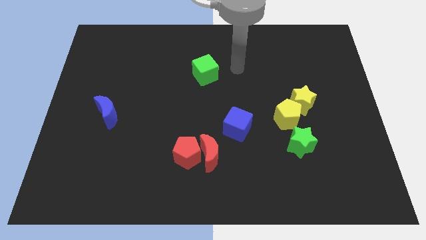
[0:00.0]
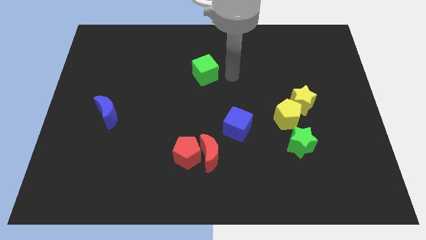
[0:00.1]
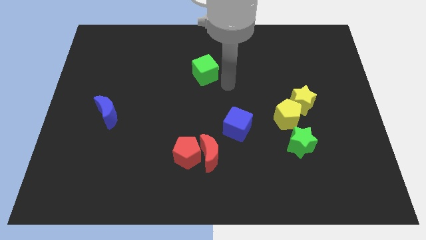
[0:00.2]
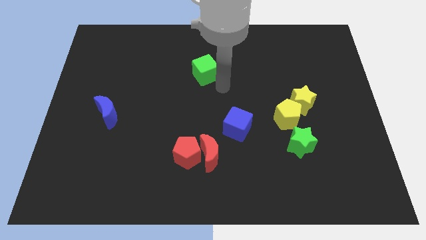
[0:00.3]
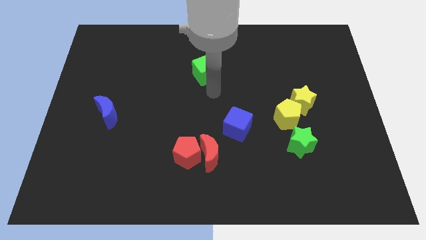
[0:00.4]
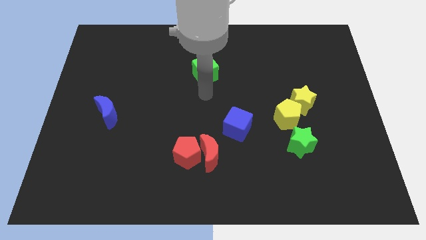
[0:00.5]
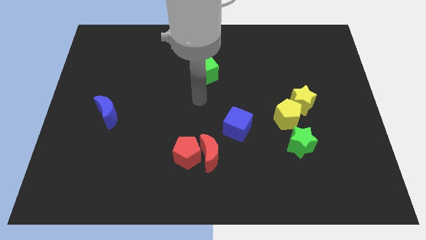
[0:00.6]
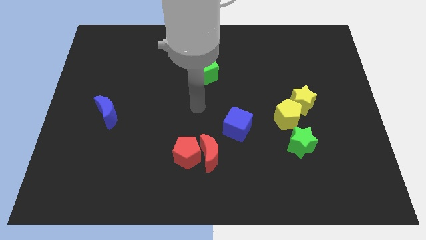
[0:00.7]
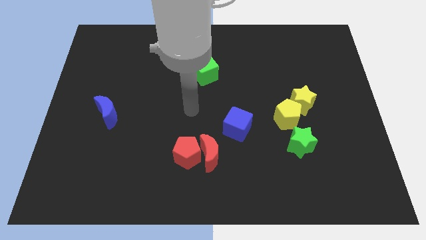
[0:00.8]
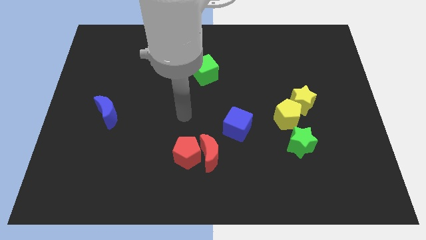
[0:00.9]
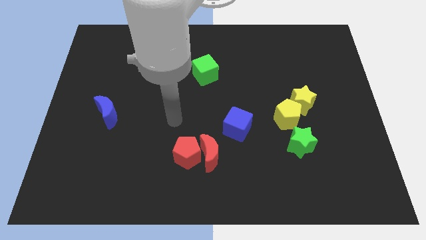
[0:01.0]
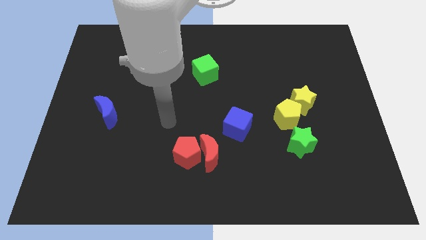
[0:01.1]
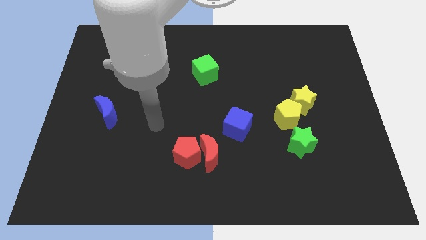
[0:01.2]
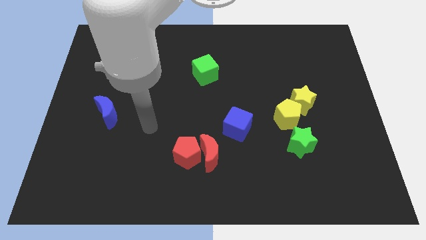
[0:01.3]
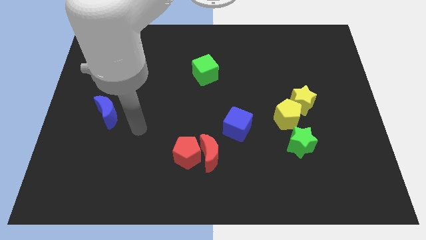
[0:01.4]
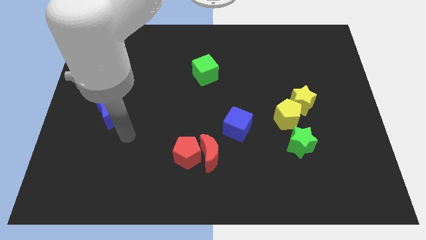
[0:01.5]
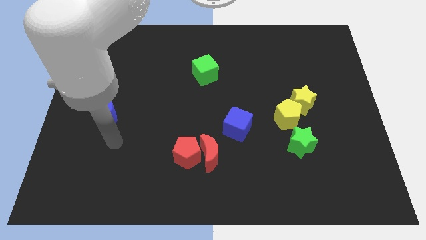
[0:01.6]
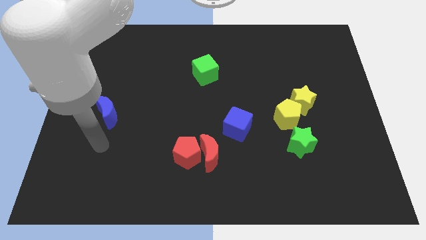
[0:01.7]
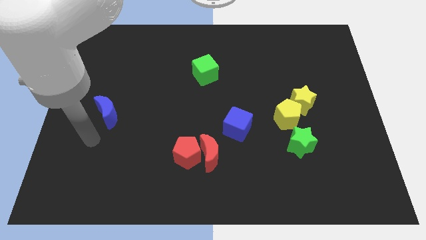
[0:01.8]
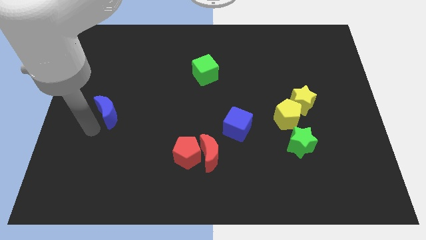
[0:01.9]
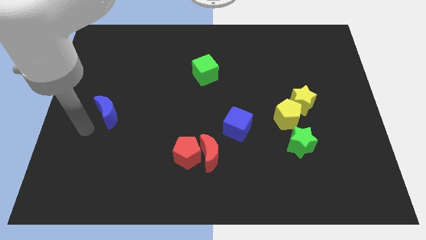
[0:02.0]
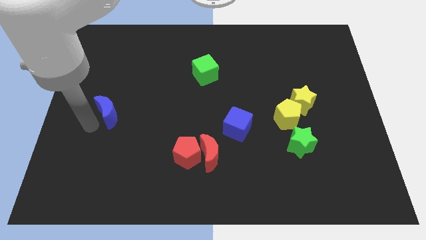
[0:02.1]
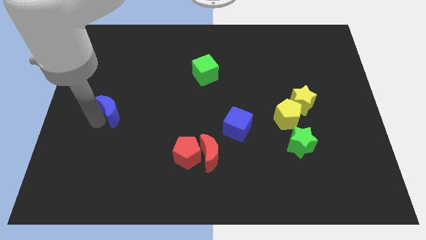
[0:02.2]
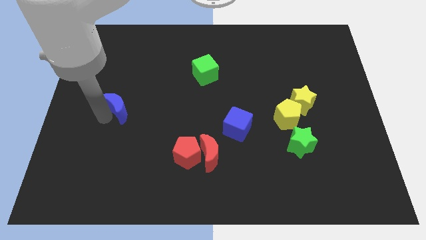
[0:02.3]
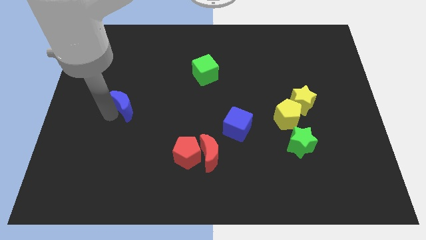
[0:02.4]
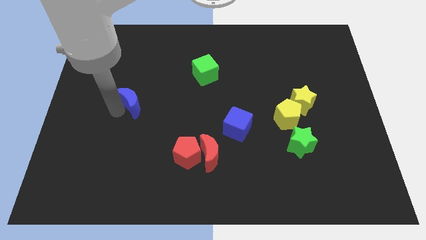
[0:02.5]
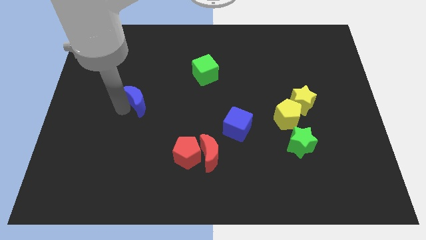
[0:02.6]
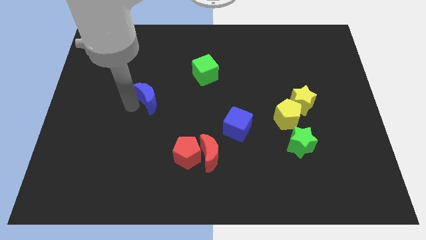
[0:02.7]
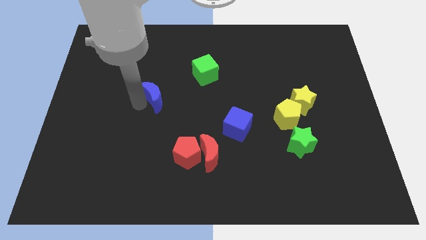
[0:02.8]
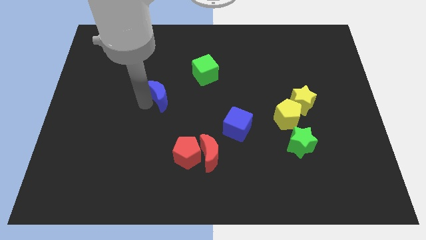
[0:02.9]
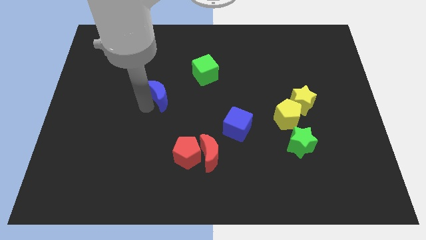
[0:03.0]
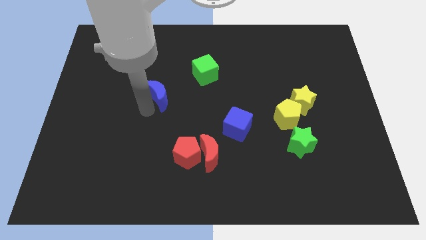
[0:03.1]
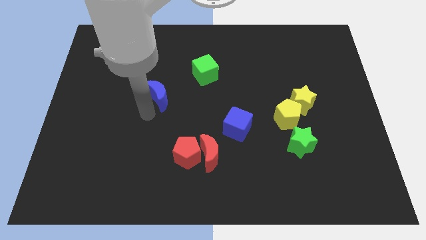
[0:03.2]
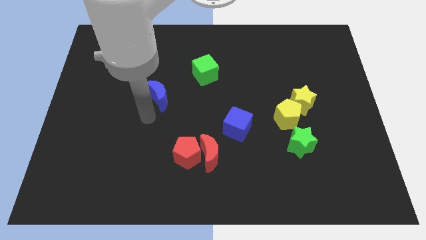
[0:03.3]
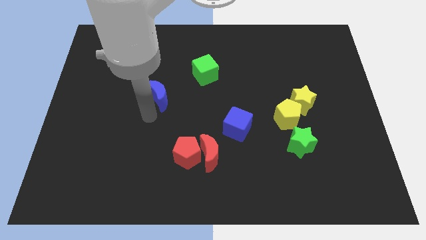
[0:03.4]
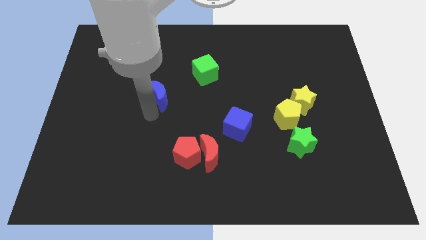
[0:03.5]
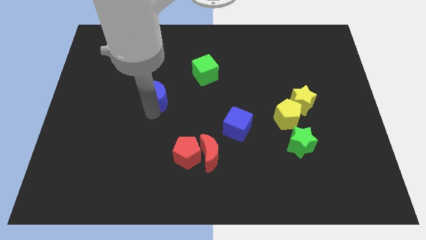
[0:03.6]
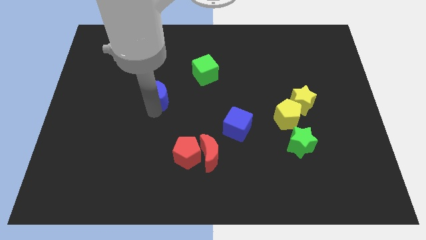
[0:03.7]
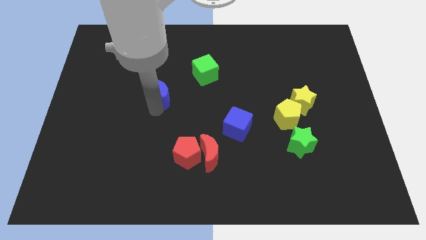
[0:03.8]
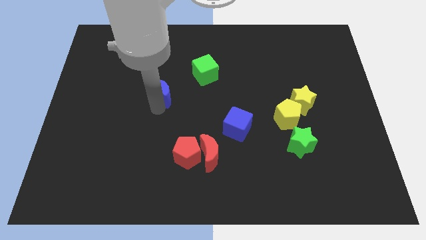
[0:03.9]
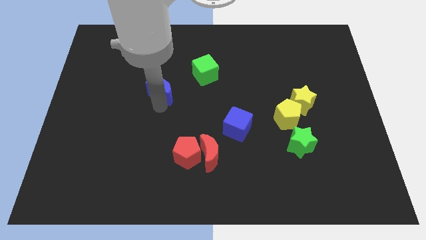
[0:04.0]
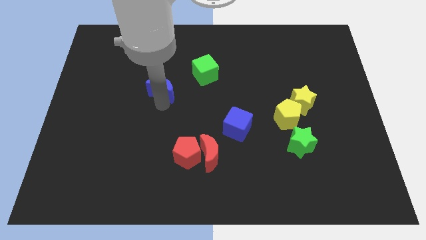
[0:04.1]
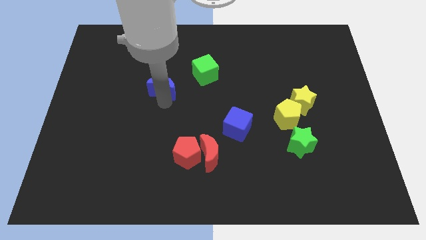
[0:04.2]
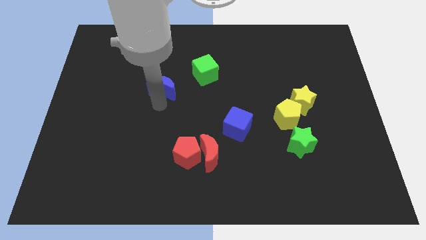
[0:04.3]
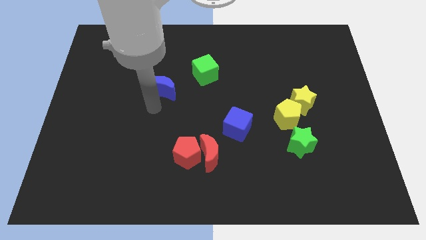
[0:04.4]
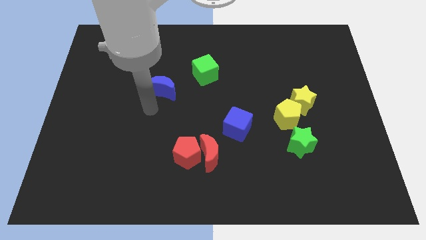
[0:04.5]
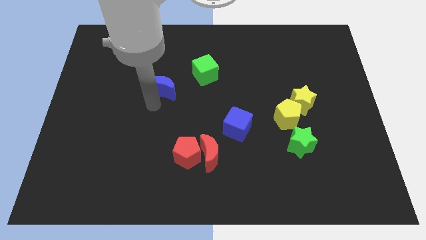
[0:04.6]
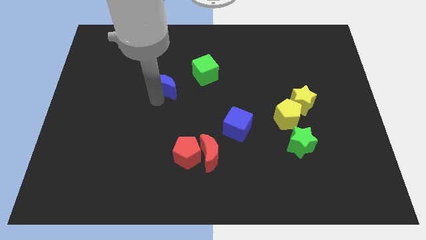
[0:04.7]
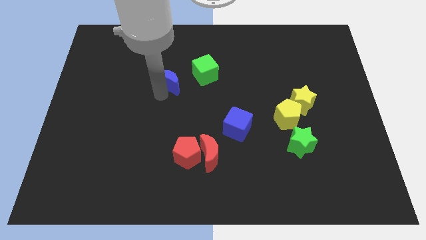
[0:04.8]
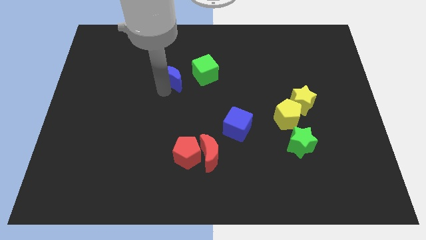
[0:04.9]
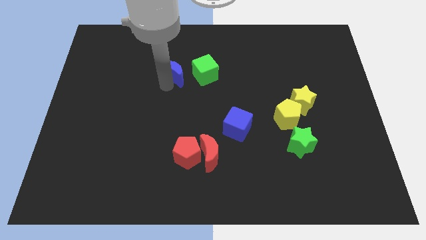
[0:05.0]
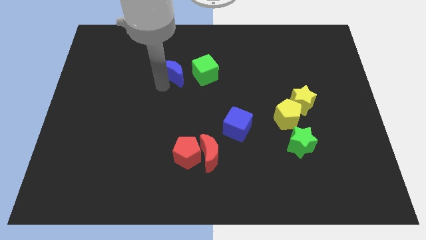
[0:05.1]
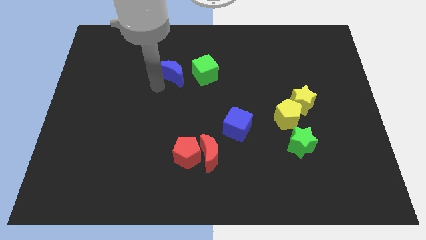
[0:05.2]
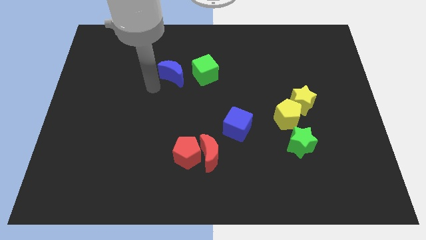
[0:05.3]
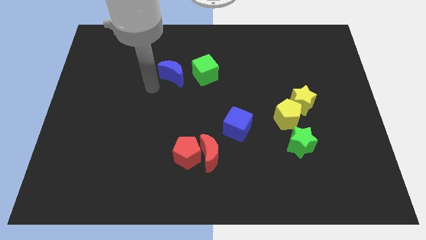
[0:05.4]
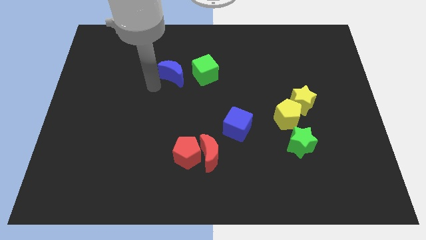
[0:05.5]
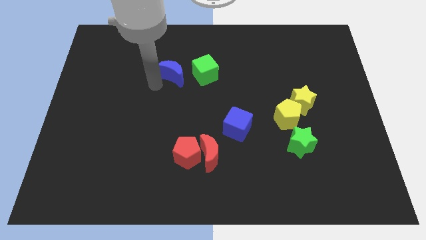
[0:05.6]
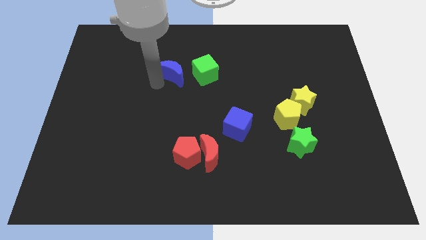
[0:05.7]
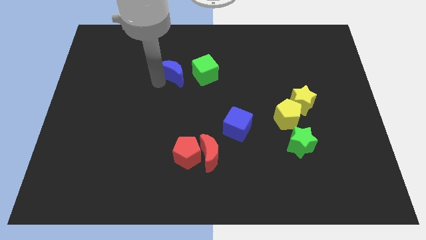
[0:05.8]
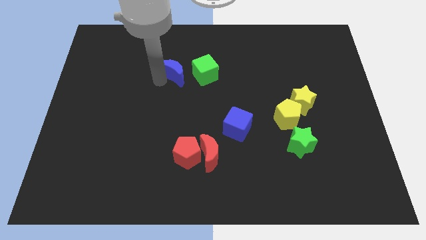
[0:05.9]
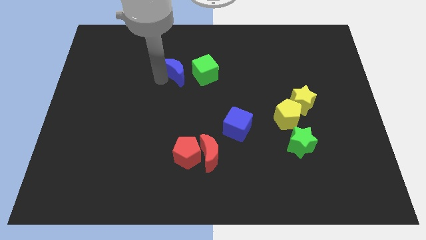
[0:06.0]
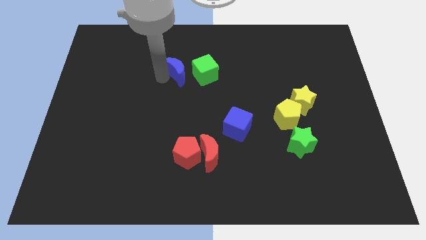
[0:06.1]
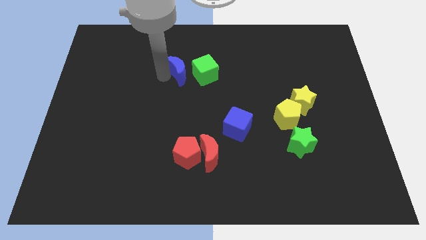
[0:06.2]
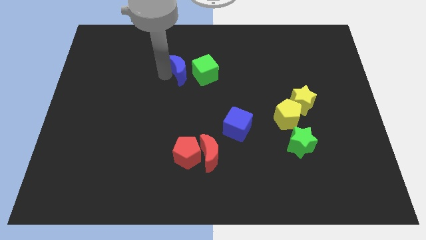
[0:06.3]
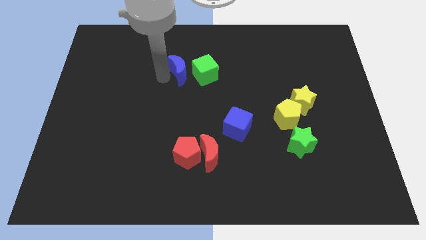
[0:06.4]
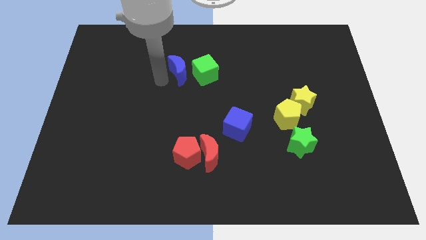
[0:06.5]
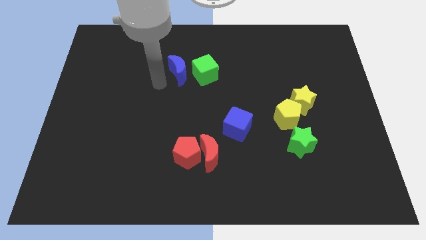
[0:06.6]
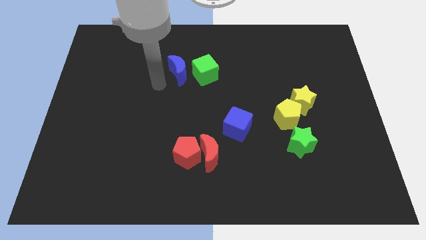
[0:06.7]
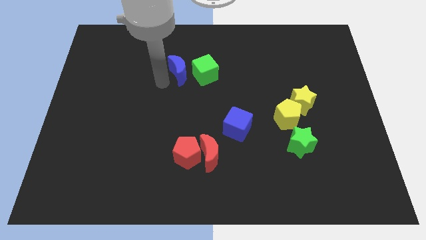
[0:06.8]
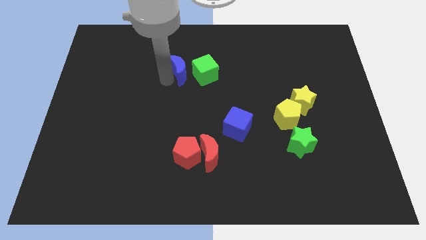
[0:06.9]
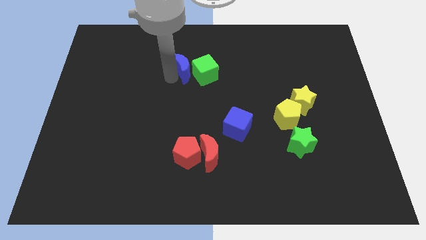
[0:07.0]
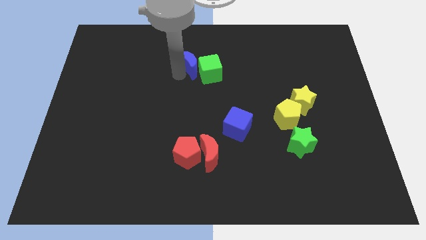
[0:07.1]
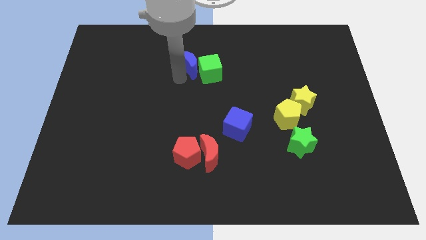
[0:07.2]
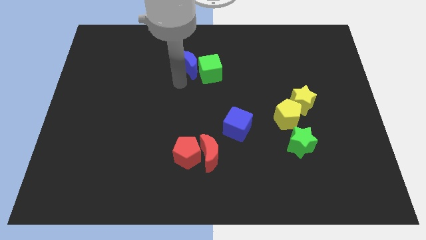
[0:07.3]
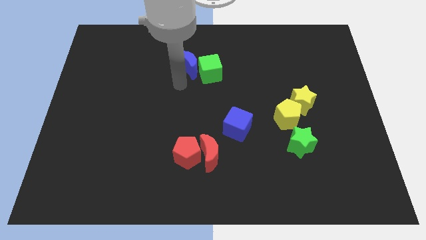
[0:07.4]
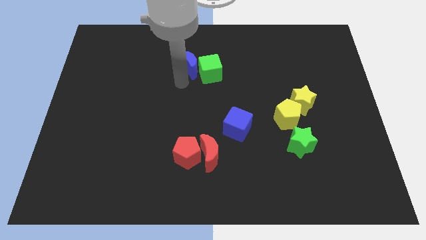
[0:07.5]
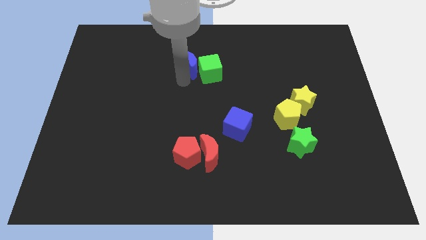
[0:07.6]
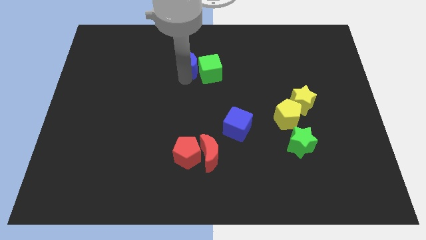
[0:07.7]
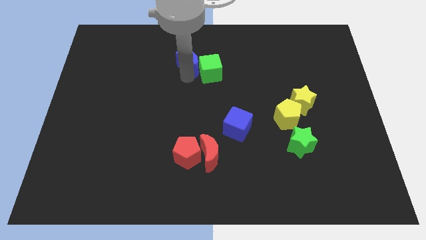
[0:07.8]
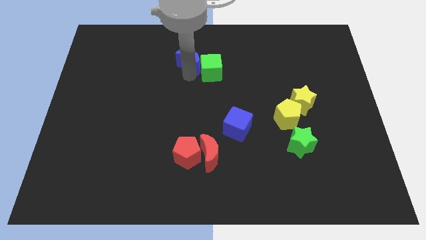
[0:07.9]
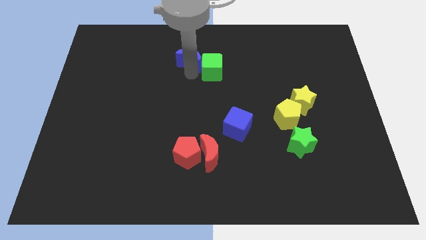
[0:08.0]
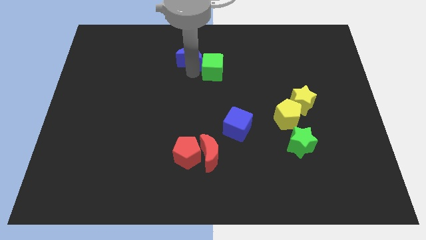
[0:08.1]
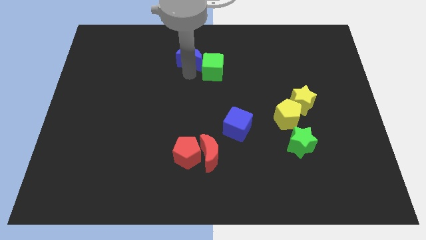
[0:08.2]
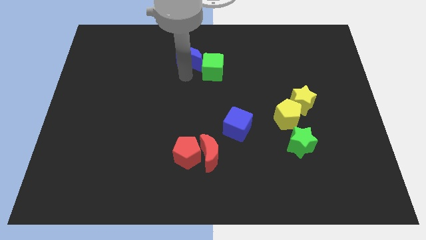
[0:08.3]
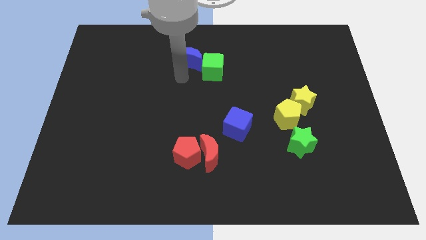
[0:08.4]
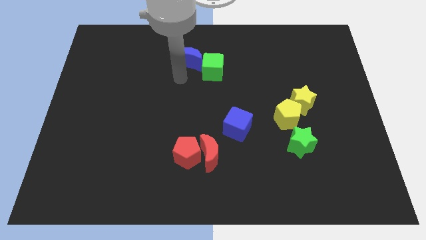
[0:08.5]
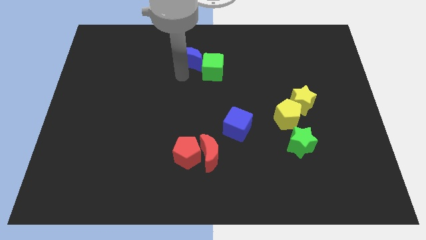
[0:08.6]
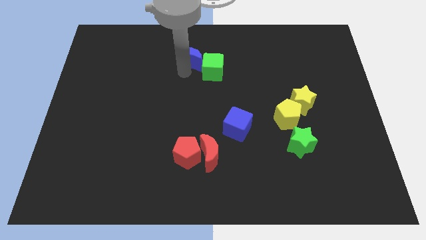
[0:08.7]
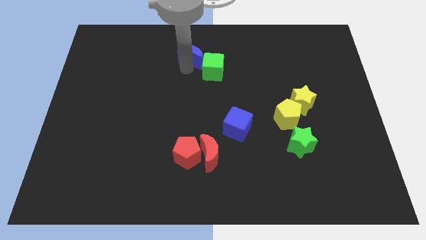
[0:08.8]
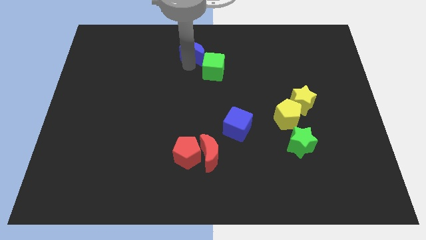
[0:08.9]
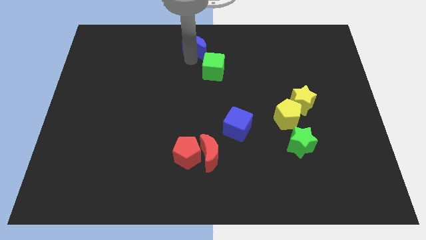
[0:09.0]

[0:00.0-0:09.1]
put the blue moon to the top side
